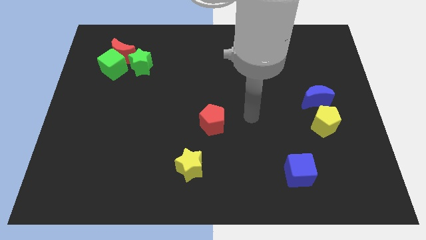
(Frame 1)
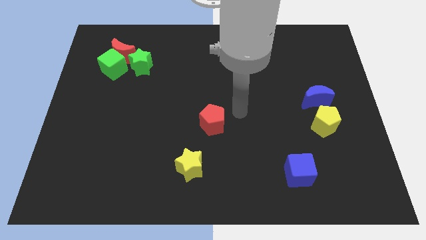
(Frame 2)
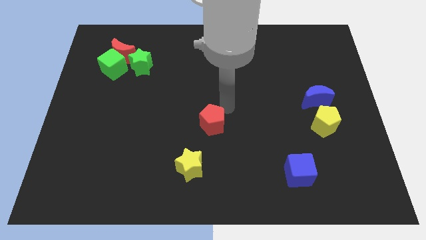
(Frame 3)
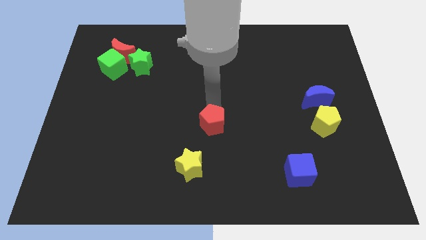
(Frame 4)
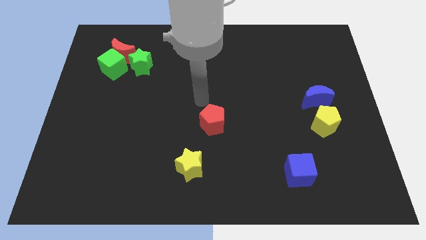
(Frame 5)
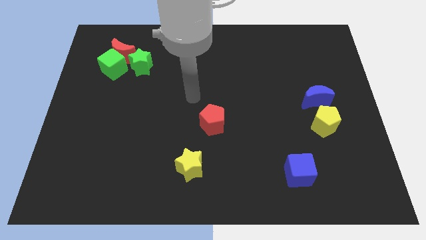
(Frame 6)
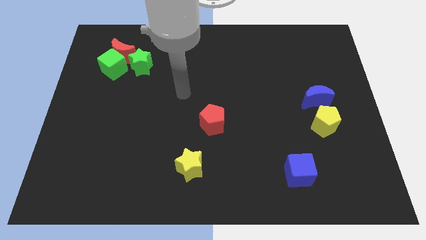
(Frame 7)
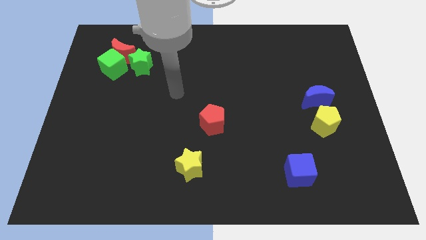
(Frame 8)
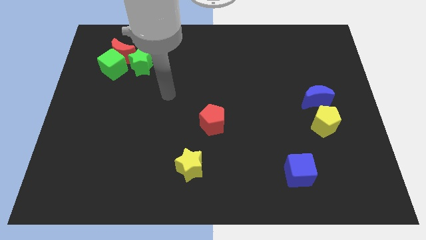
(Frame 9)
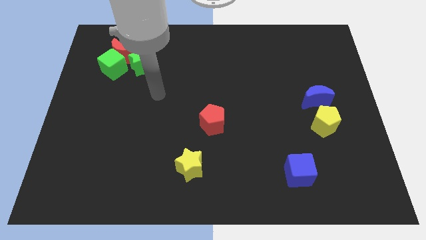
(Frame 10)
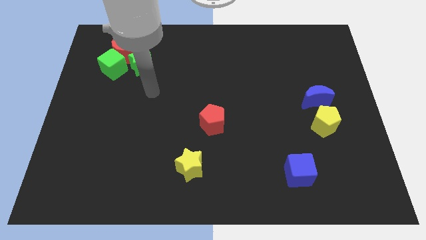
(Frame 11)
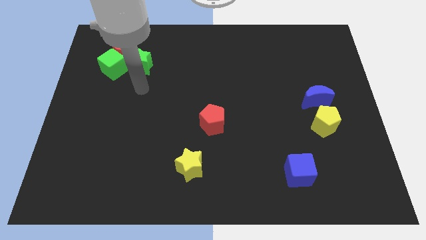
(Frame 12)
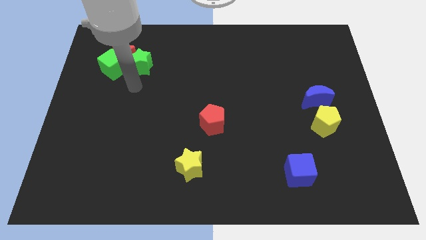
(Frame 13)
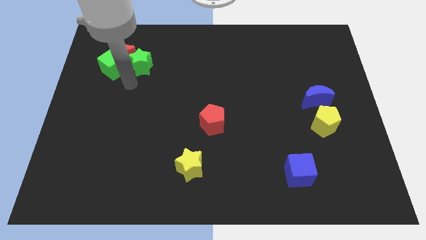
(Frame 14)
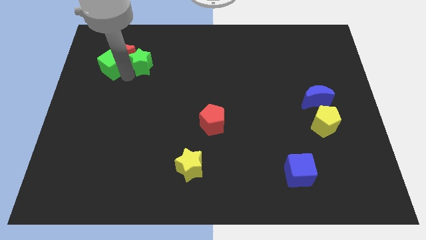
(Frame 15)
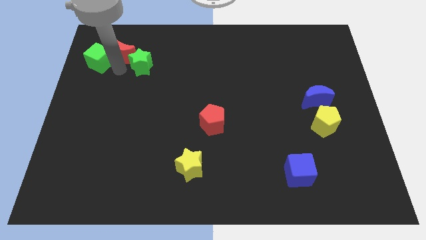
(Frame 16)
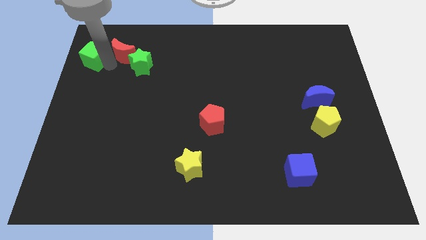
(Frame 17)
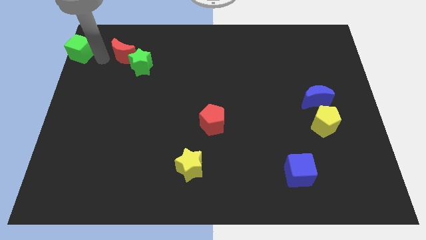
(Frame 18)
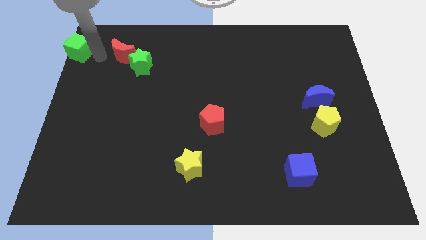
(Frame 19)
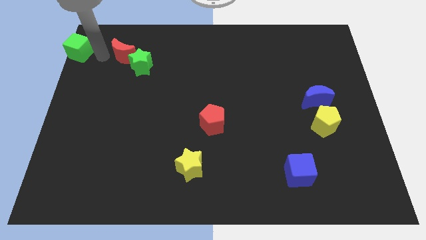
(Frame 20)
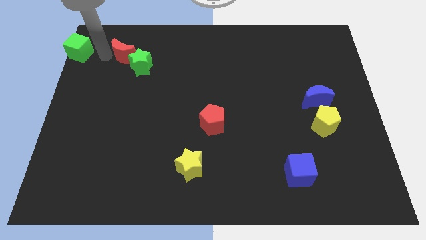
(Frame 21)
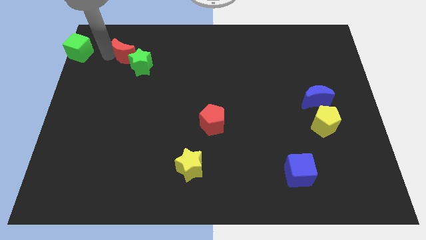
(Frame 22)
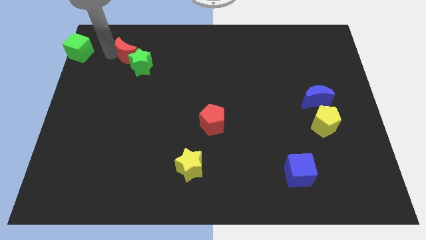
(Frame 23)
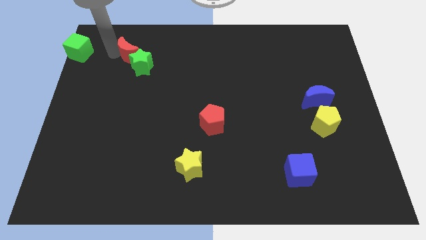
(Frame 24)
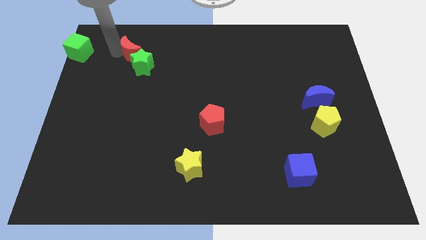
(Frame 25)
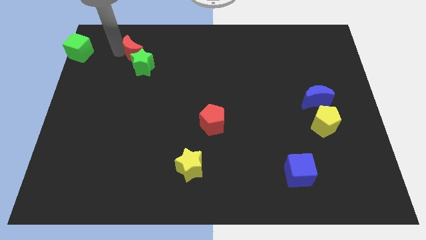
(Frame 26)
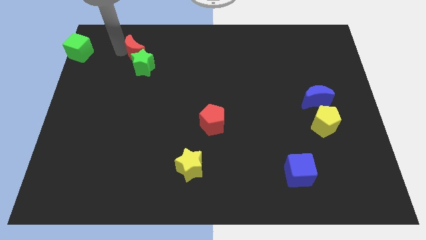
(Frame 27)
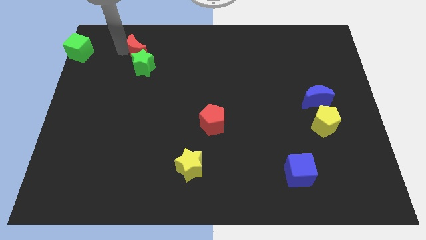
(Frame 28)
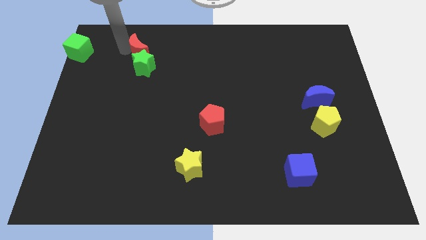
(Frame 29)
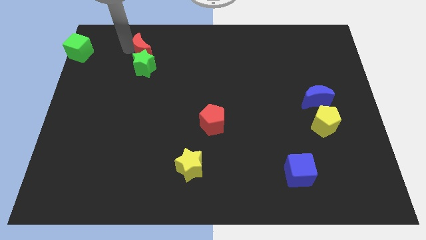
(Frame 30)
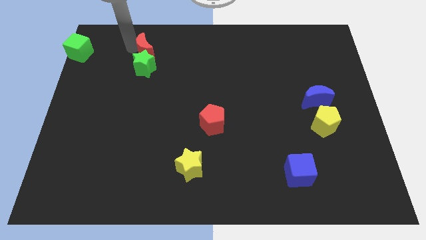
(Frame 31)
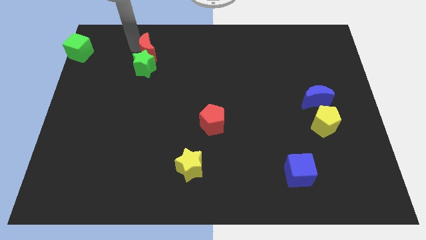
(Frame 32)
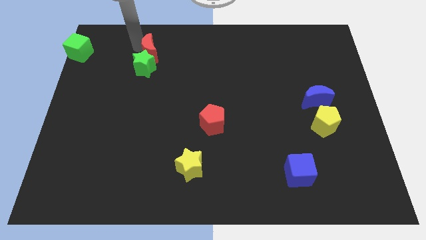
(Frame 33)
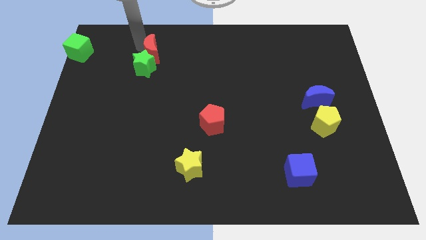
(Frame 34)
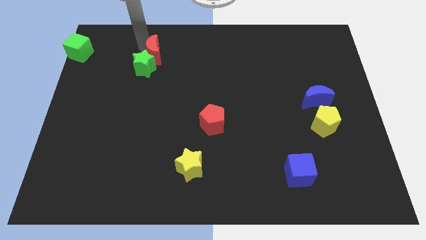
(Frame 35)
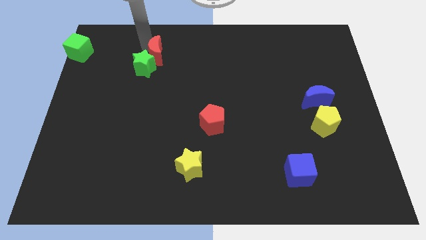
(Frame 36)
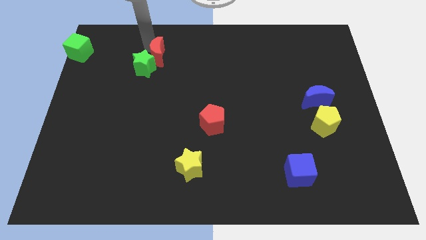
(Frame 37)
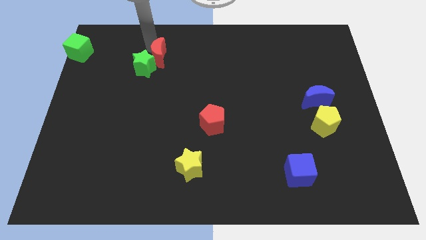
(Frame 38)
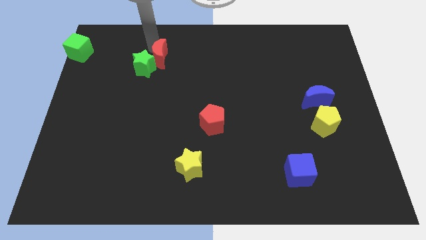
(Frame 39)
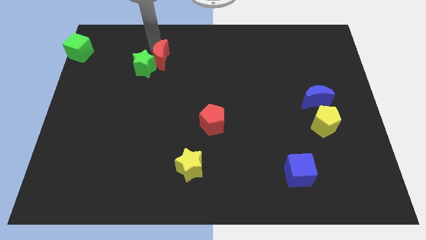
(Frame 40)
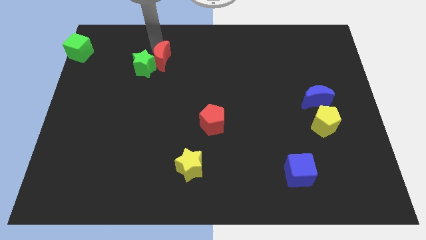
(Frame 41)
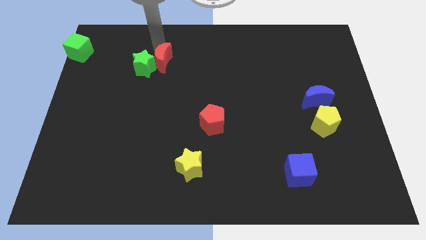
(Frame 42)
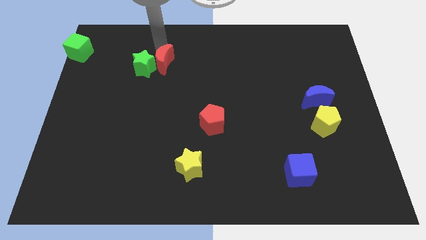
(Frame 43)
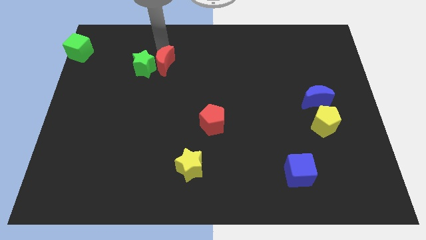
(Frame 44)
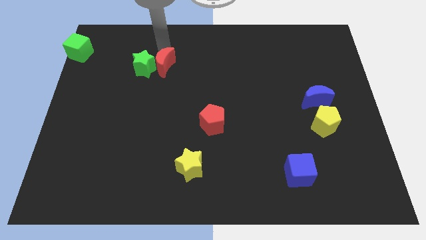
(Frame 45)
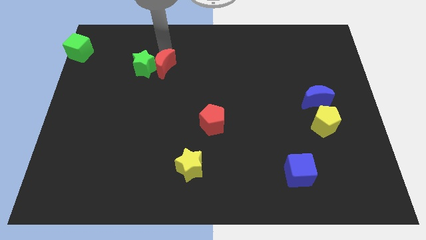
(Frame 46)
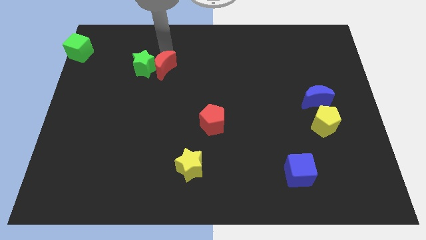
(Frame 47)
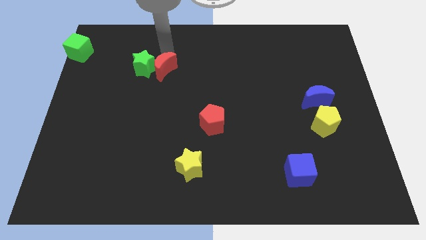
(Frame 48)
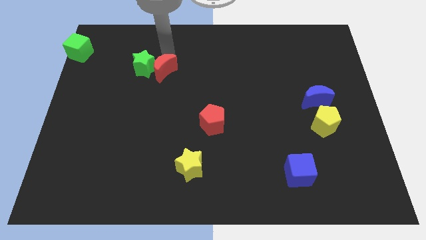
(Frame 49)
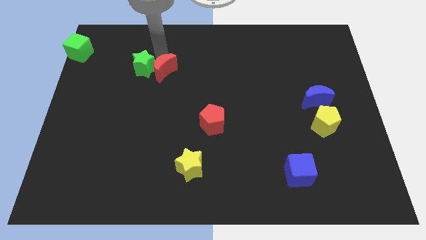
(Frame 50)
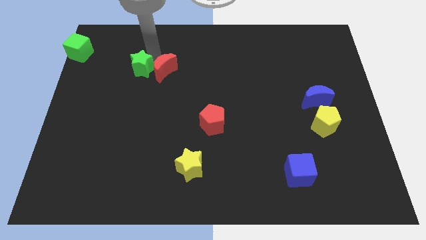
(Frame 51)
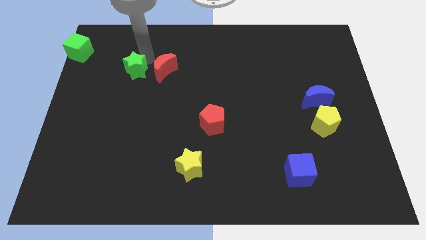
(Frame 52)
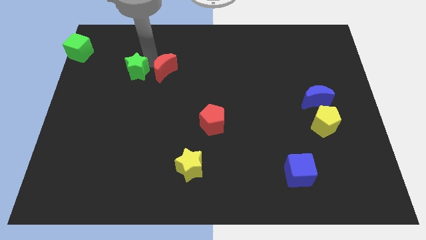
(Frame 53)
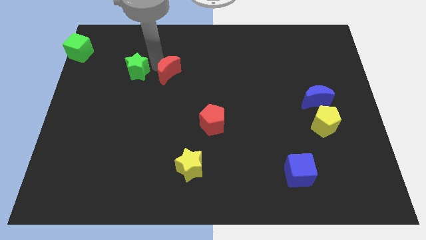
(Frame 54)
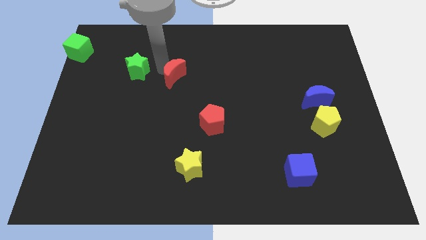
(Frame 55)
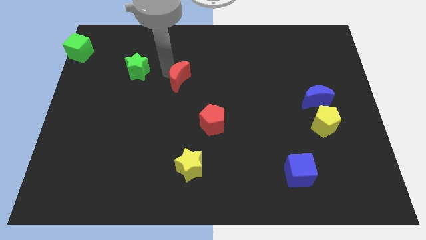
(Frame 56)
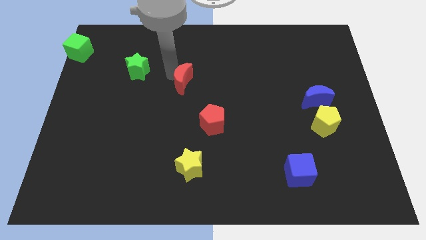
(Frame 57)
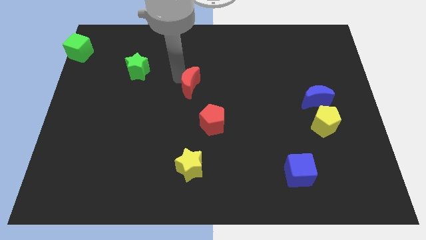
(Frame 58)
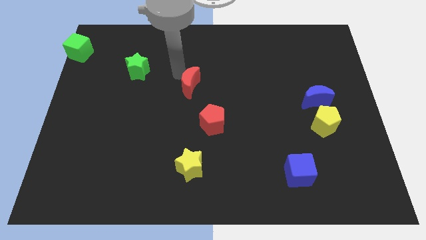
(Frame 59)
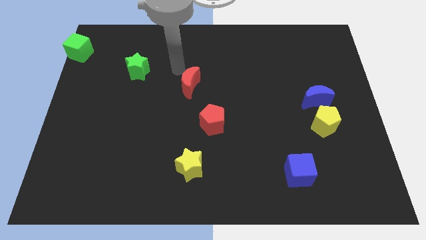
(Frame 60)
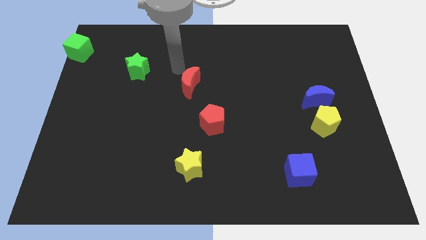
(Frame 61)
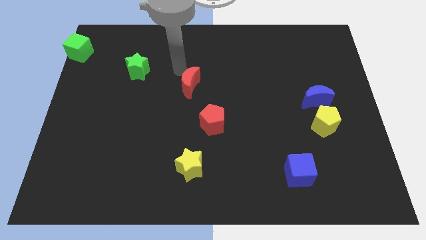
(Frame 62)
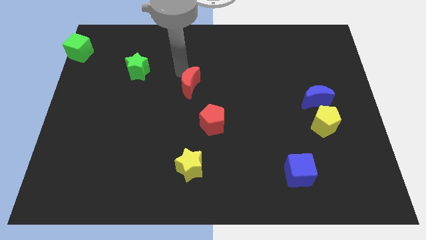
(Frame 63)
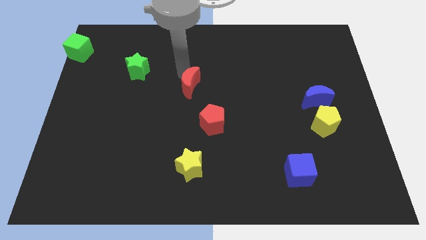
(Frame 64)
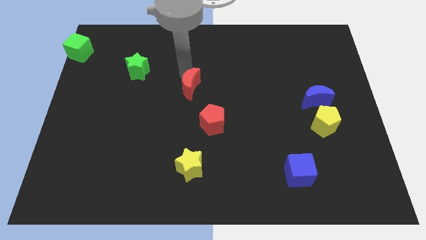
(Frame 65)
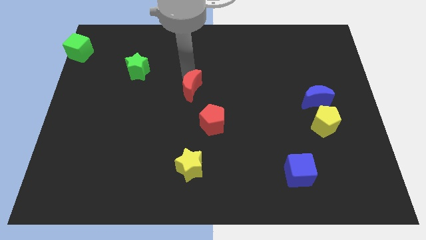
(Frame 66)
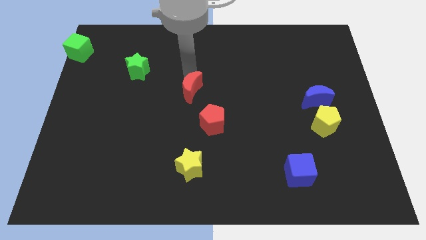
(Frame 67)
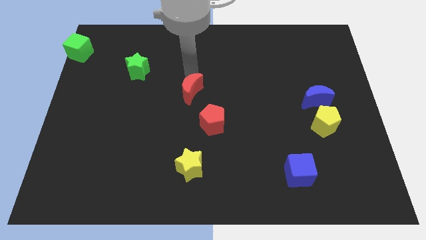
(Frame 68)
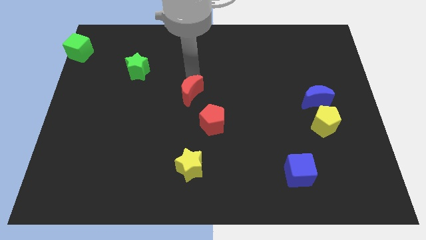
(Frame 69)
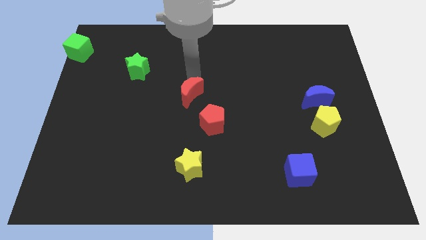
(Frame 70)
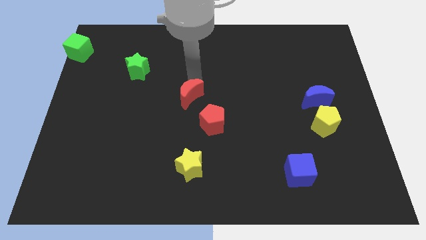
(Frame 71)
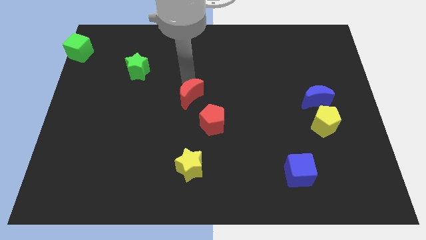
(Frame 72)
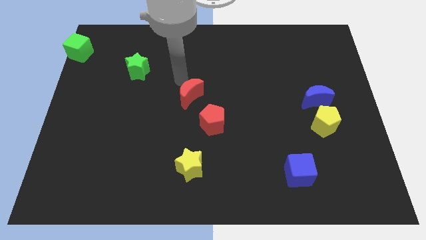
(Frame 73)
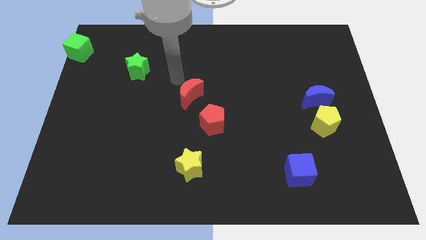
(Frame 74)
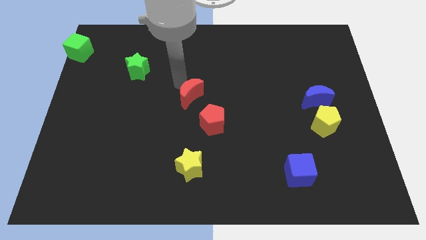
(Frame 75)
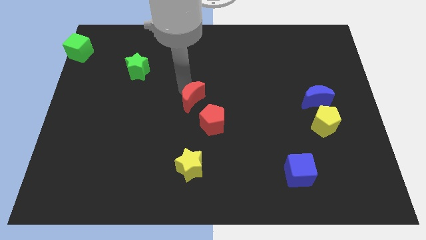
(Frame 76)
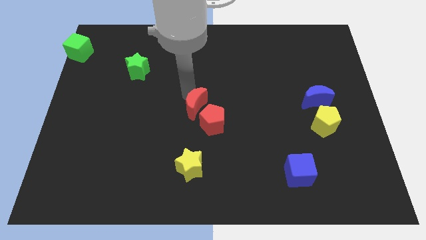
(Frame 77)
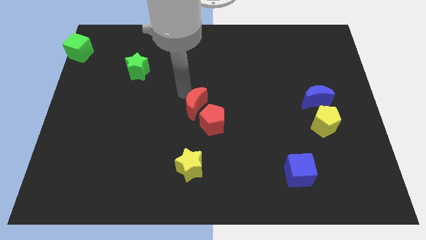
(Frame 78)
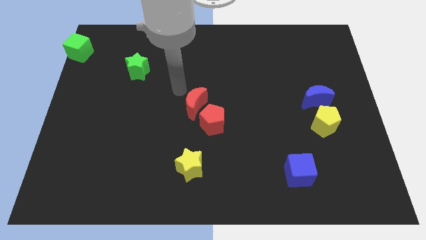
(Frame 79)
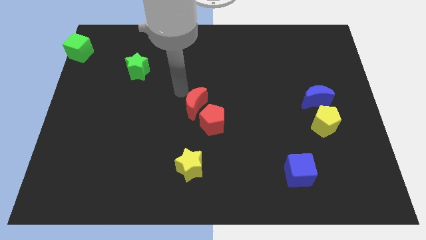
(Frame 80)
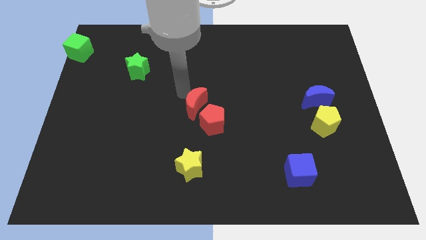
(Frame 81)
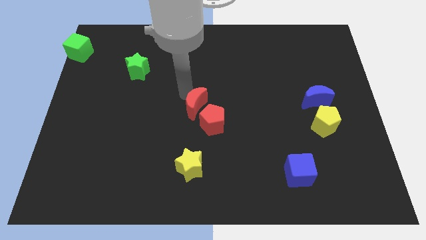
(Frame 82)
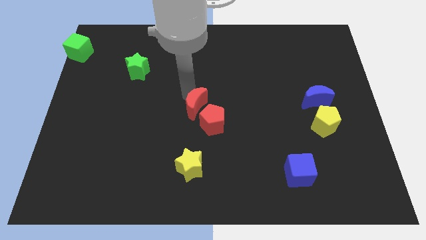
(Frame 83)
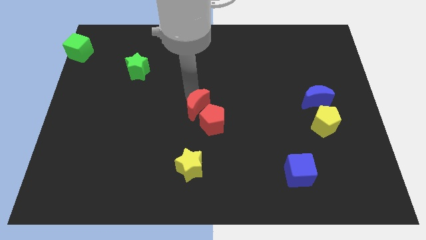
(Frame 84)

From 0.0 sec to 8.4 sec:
slide the red moon next to the red pentagon
